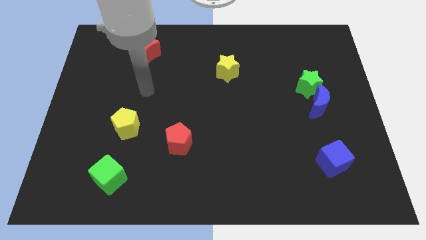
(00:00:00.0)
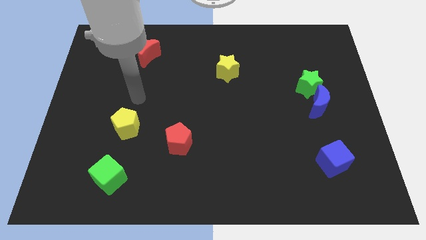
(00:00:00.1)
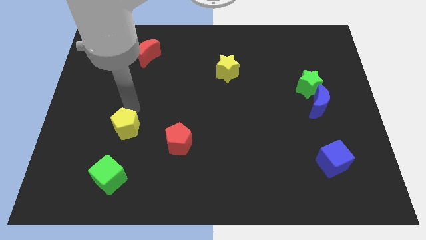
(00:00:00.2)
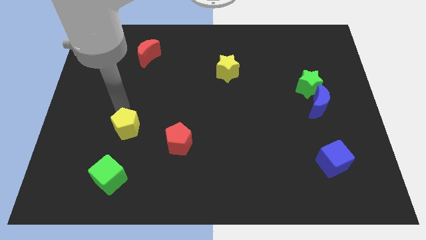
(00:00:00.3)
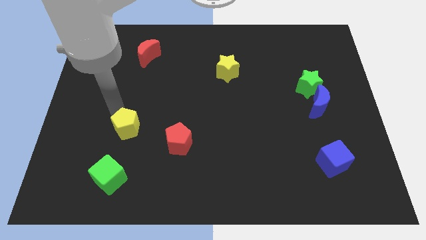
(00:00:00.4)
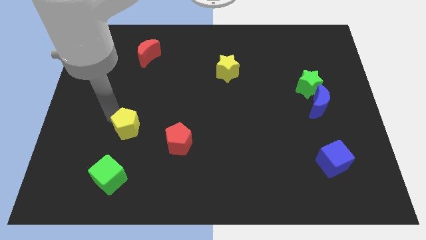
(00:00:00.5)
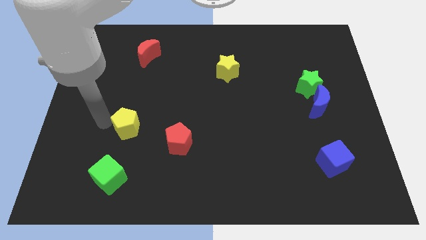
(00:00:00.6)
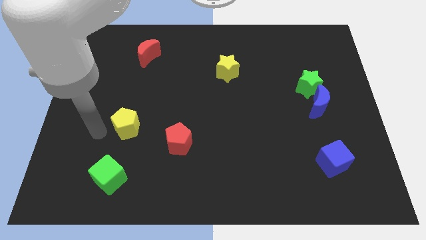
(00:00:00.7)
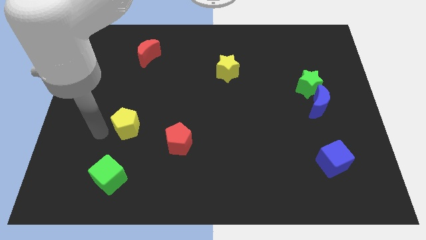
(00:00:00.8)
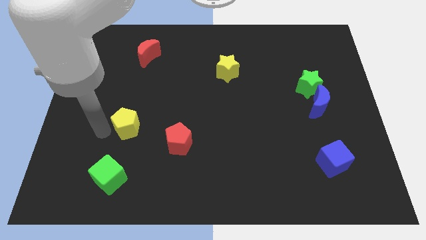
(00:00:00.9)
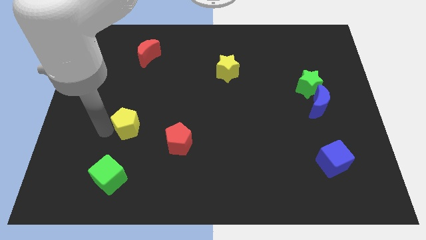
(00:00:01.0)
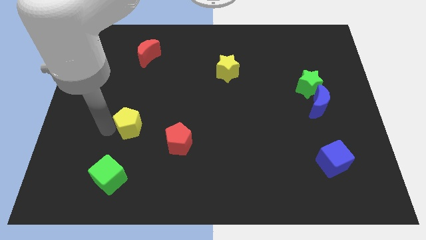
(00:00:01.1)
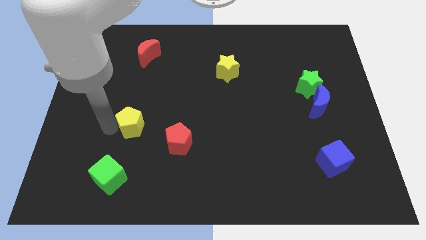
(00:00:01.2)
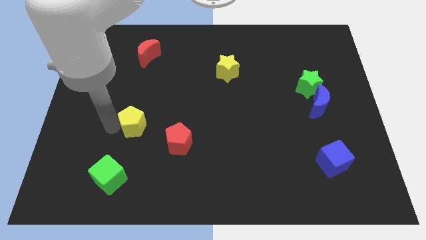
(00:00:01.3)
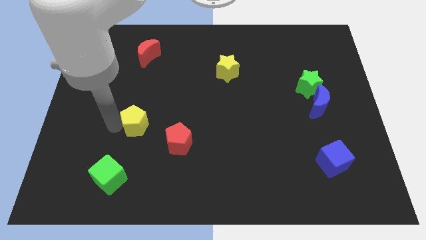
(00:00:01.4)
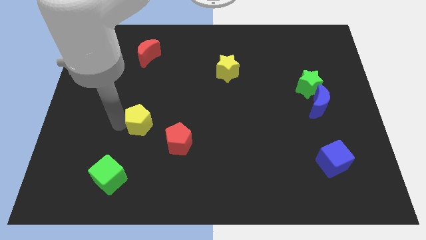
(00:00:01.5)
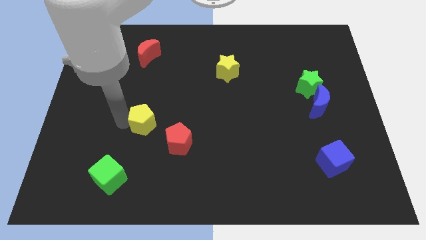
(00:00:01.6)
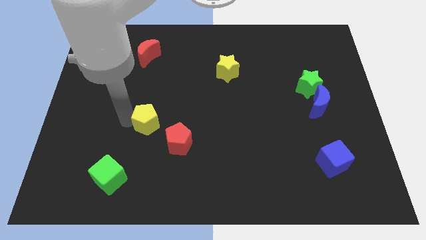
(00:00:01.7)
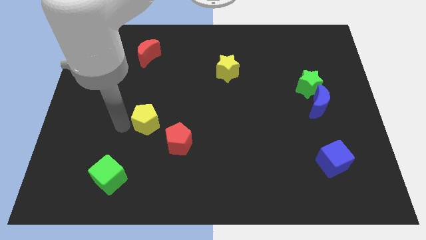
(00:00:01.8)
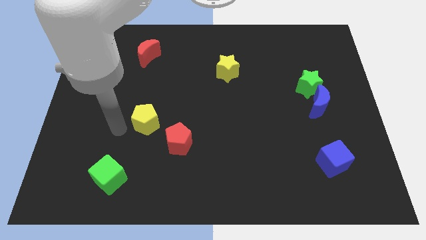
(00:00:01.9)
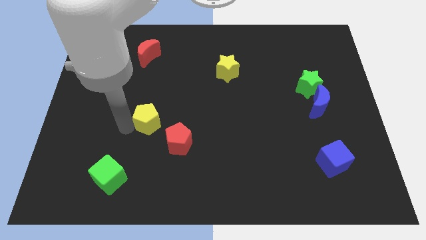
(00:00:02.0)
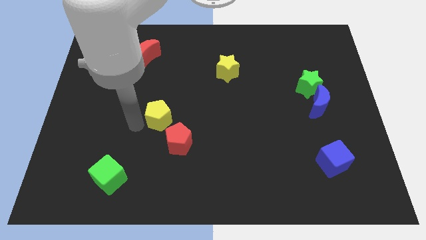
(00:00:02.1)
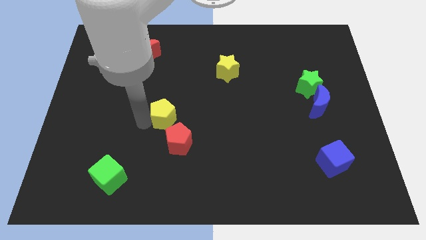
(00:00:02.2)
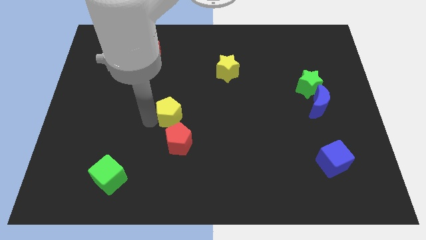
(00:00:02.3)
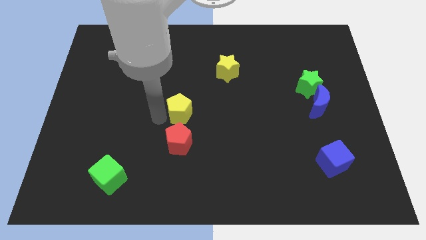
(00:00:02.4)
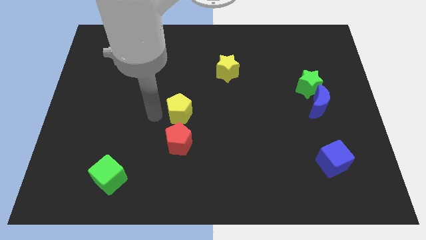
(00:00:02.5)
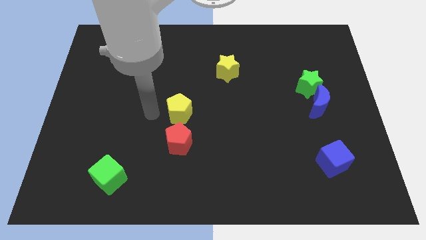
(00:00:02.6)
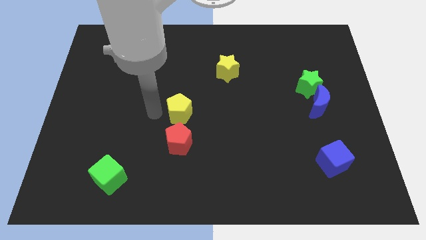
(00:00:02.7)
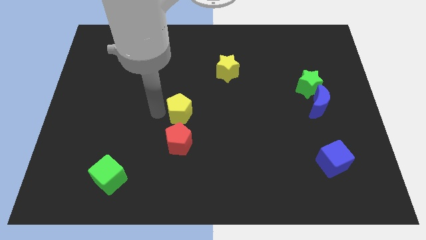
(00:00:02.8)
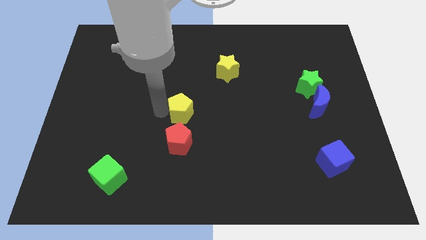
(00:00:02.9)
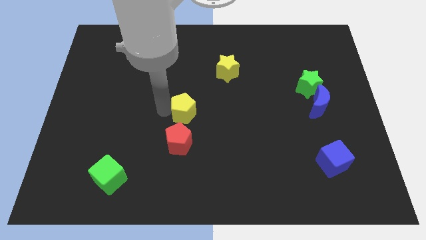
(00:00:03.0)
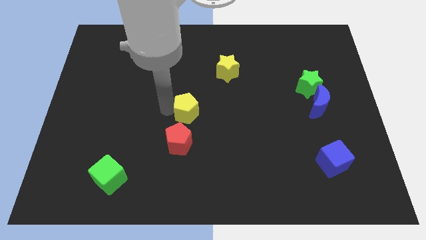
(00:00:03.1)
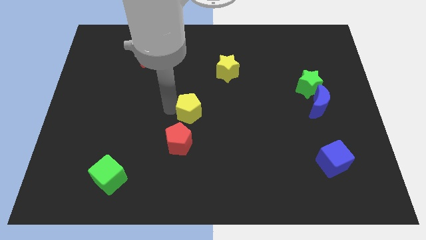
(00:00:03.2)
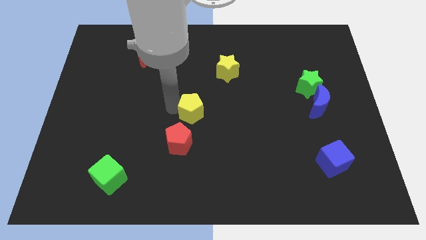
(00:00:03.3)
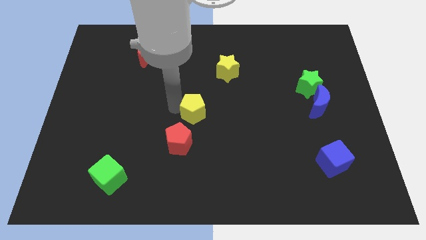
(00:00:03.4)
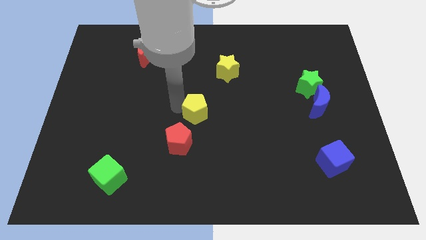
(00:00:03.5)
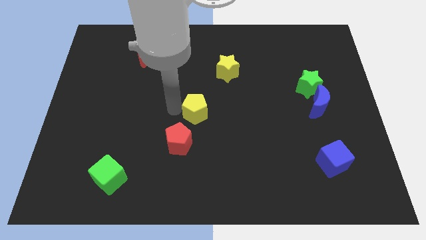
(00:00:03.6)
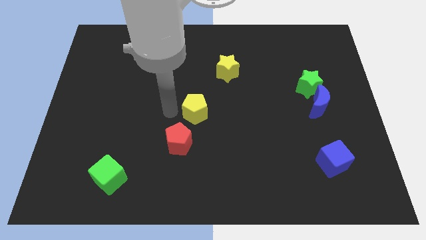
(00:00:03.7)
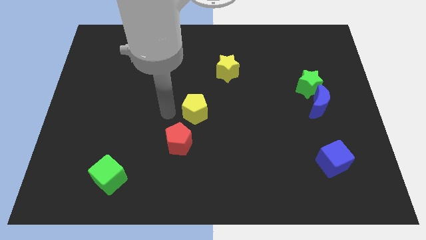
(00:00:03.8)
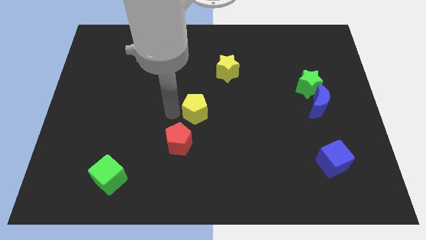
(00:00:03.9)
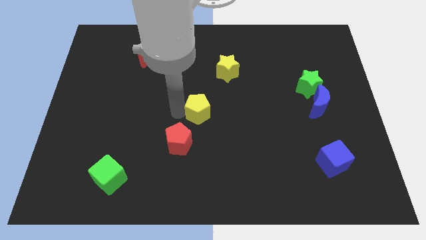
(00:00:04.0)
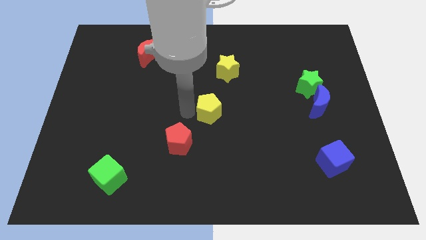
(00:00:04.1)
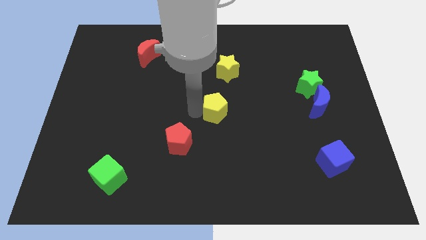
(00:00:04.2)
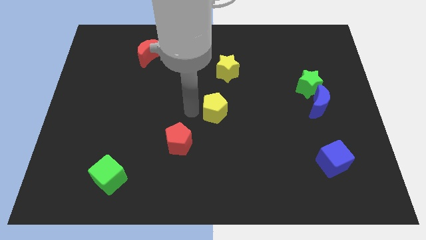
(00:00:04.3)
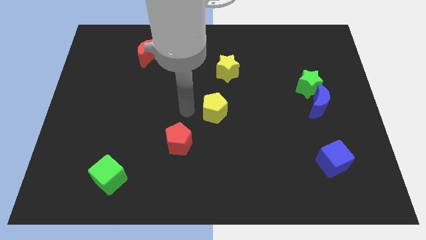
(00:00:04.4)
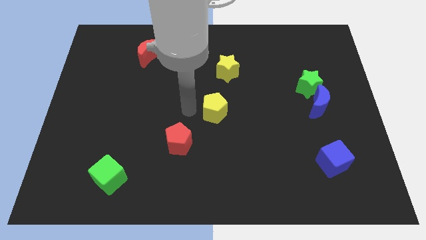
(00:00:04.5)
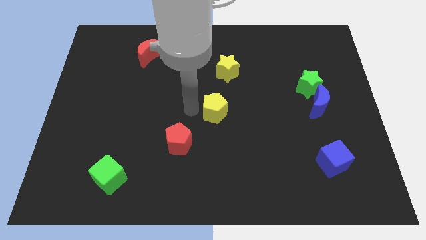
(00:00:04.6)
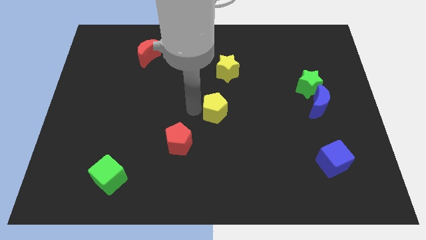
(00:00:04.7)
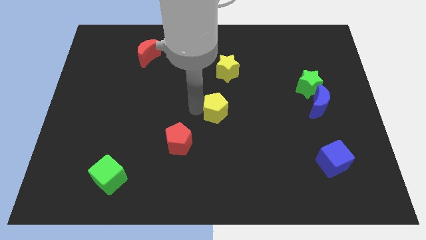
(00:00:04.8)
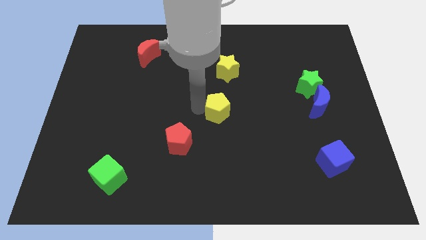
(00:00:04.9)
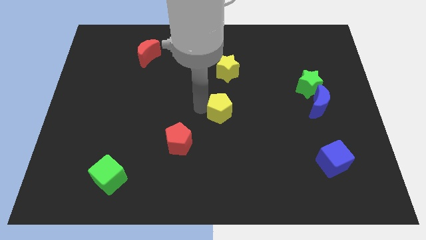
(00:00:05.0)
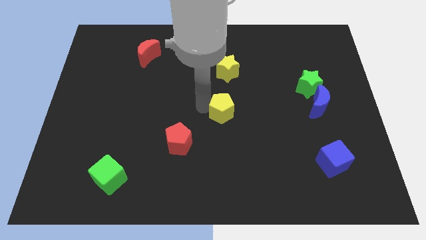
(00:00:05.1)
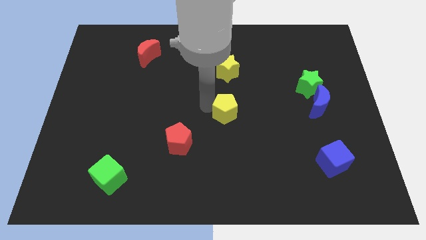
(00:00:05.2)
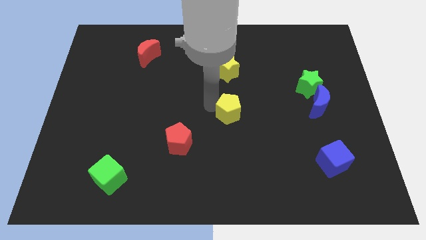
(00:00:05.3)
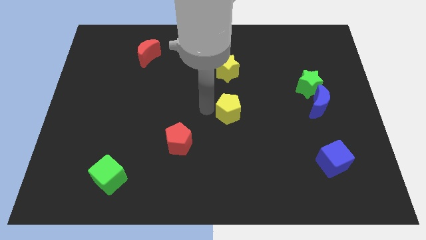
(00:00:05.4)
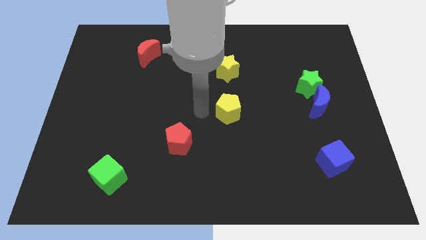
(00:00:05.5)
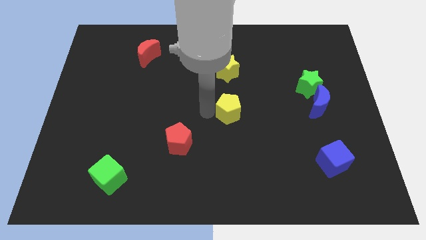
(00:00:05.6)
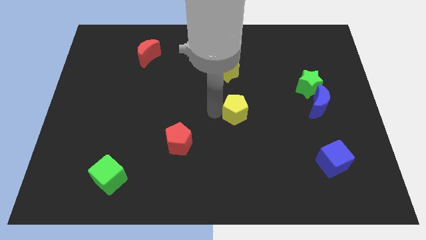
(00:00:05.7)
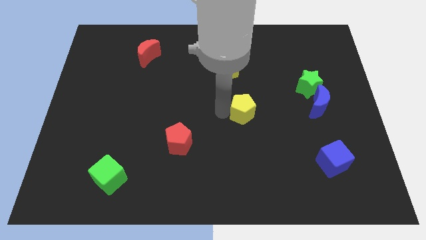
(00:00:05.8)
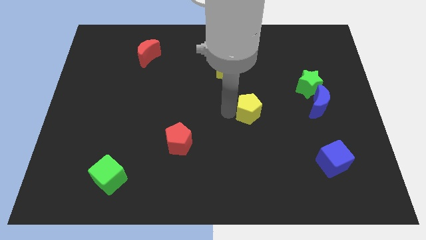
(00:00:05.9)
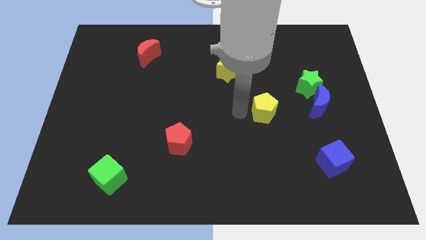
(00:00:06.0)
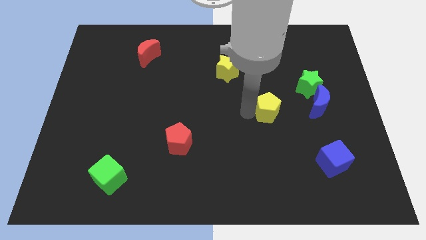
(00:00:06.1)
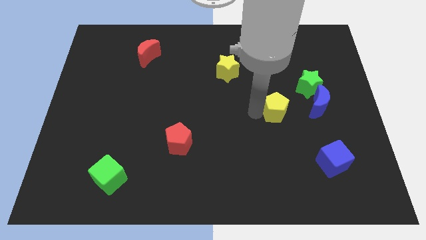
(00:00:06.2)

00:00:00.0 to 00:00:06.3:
push the yellow pentagon diagonally down and to the left of the green star

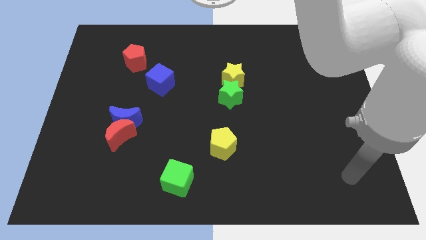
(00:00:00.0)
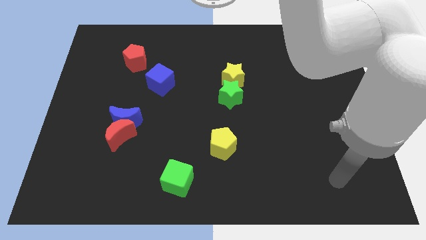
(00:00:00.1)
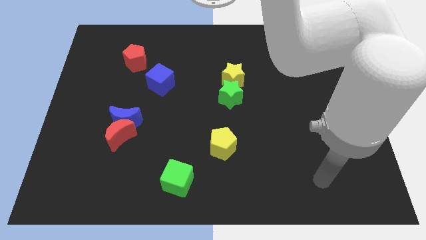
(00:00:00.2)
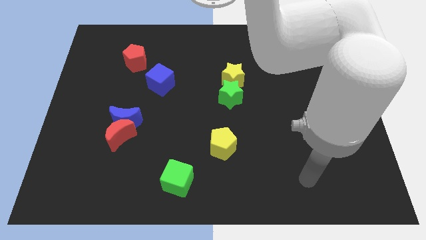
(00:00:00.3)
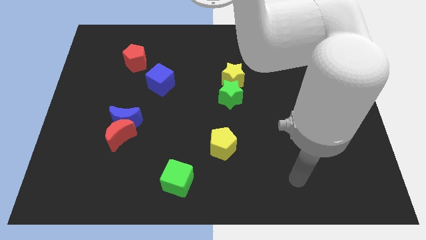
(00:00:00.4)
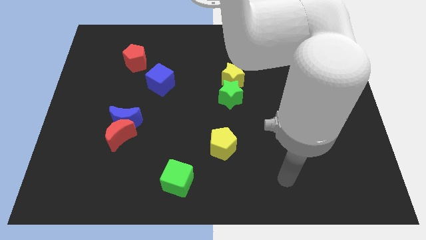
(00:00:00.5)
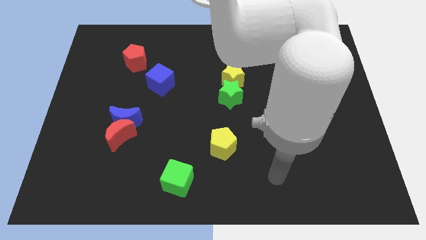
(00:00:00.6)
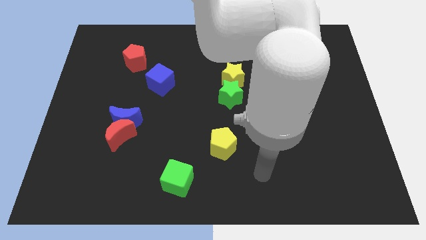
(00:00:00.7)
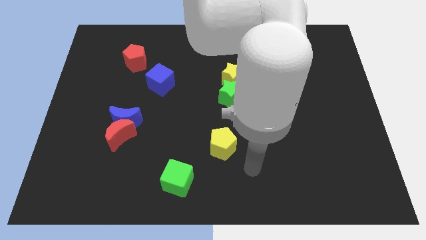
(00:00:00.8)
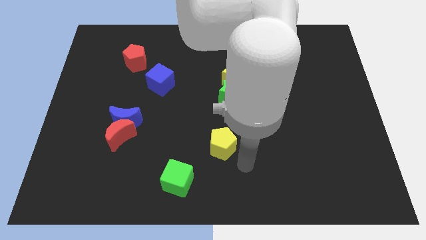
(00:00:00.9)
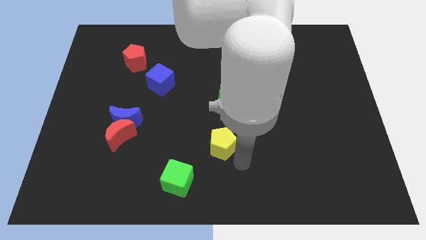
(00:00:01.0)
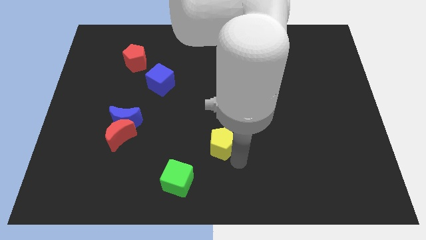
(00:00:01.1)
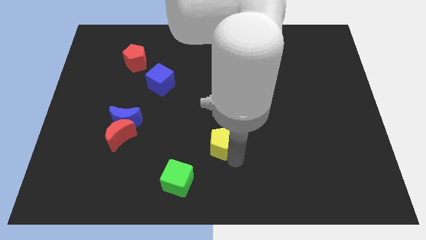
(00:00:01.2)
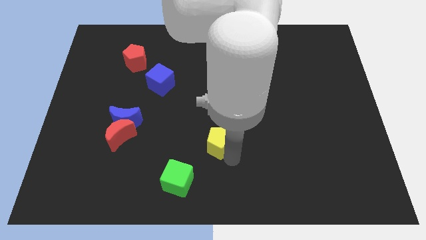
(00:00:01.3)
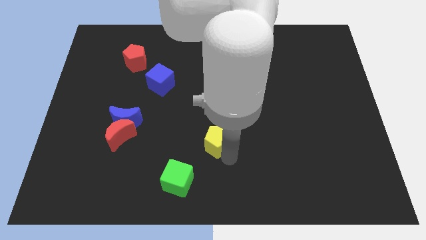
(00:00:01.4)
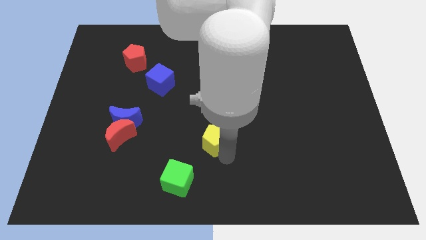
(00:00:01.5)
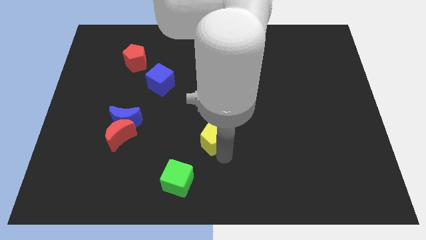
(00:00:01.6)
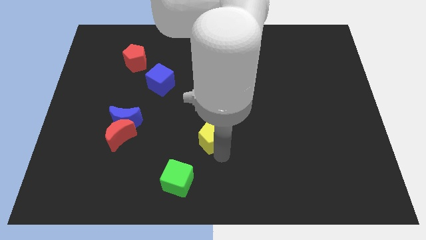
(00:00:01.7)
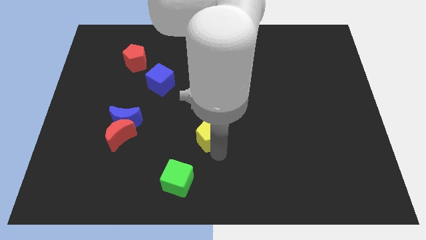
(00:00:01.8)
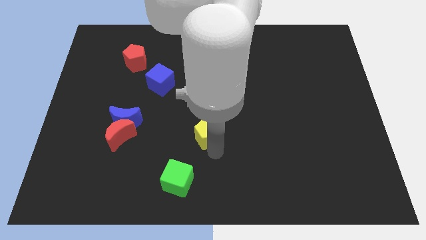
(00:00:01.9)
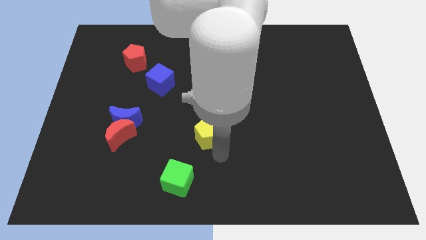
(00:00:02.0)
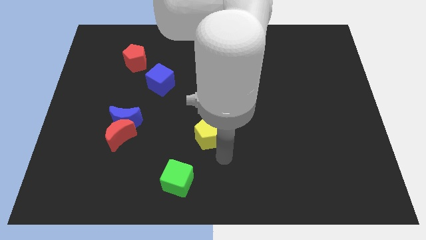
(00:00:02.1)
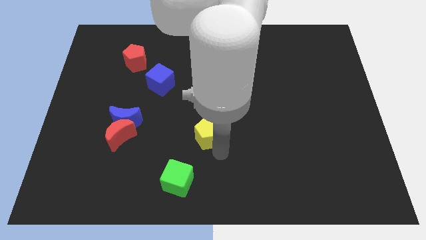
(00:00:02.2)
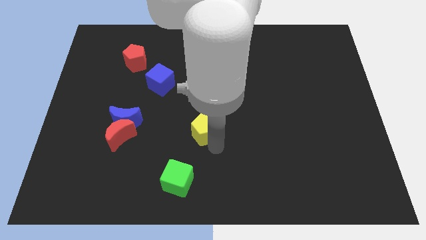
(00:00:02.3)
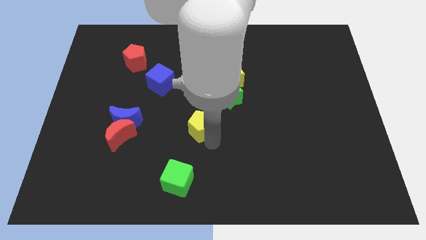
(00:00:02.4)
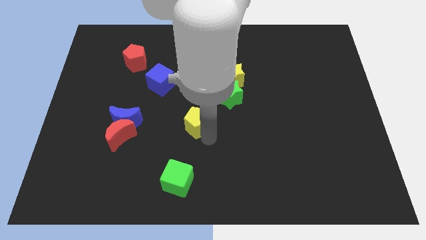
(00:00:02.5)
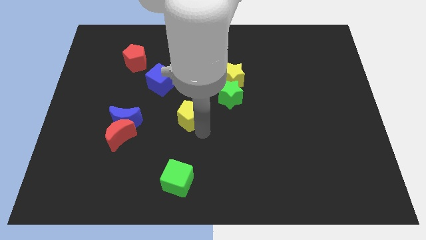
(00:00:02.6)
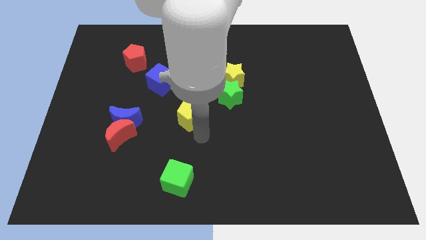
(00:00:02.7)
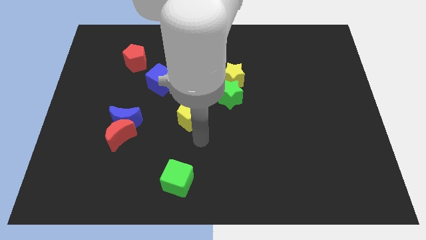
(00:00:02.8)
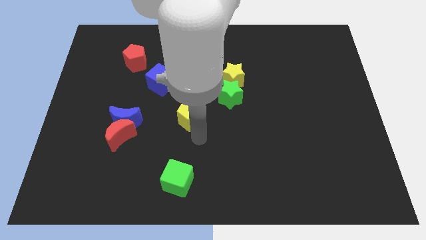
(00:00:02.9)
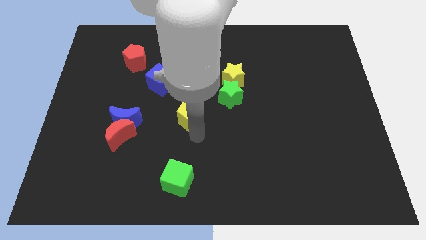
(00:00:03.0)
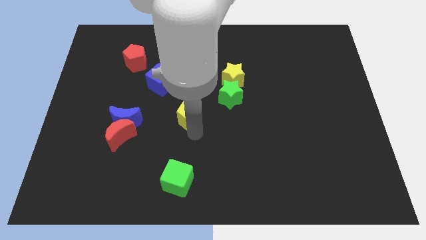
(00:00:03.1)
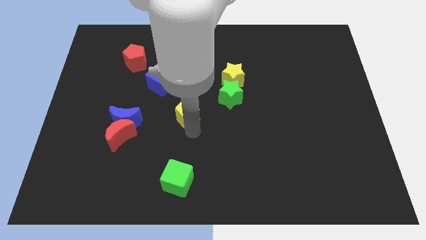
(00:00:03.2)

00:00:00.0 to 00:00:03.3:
move the yellow pentagon to the bottom right side of the blue cube
